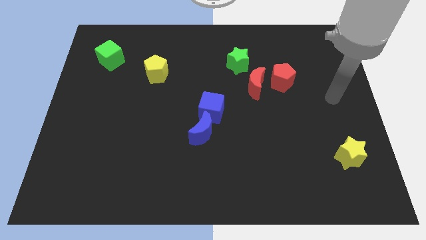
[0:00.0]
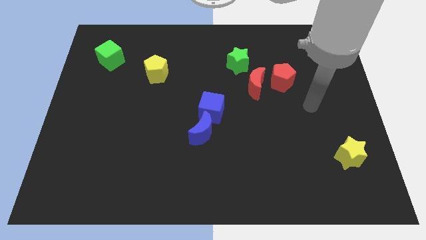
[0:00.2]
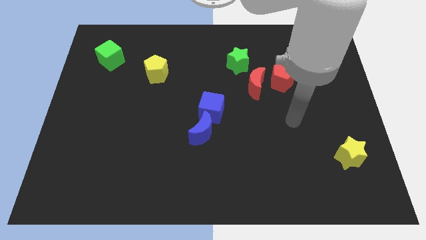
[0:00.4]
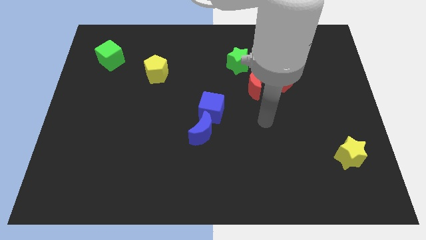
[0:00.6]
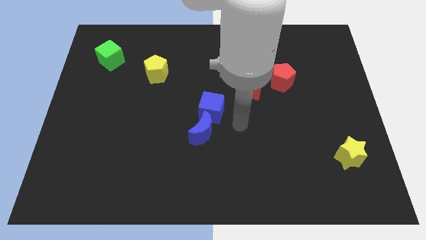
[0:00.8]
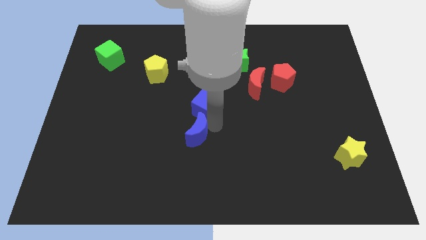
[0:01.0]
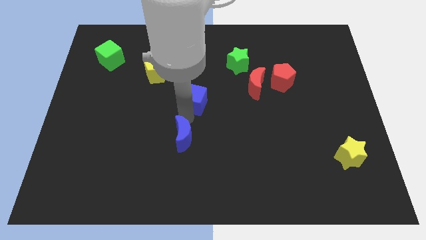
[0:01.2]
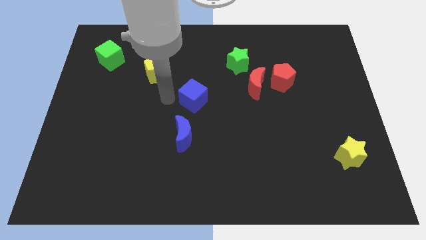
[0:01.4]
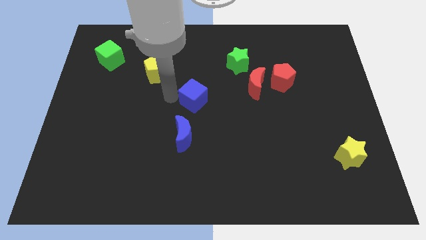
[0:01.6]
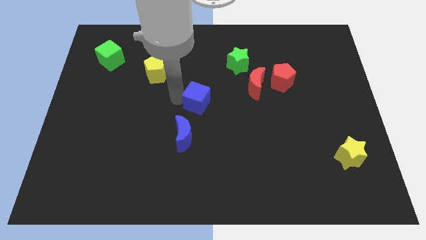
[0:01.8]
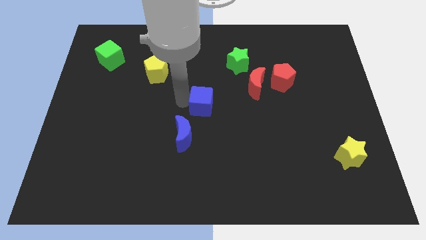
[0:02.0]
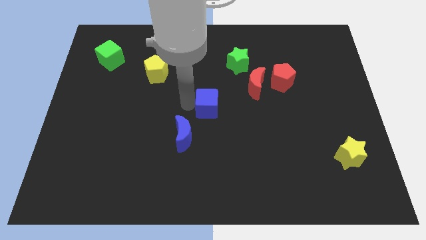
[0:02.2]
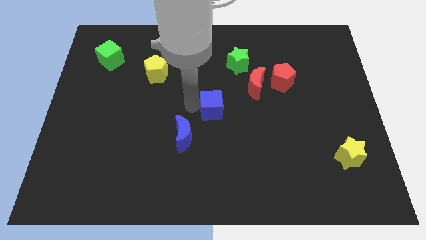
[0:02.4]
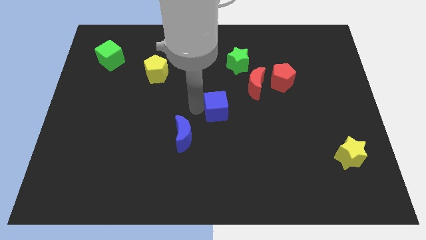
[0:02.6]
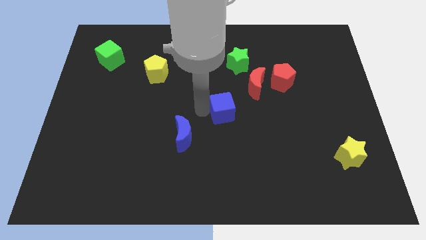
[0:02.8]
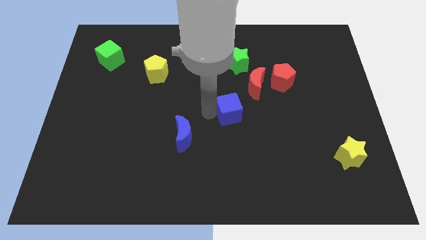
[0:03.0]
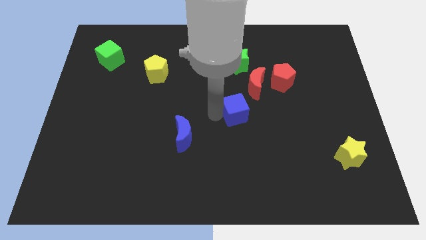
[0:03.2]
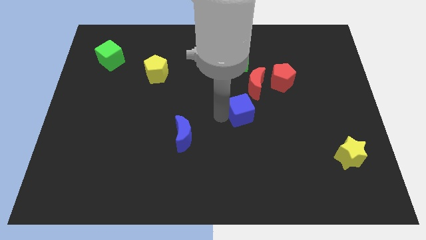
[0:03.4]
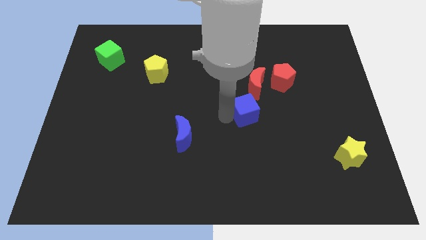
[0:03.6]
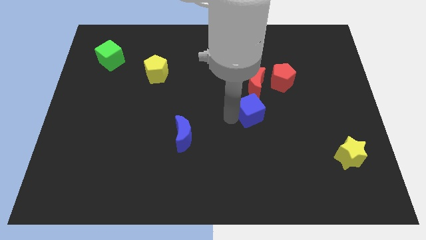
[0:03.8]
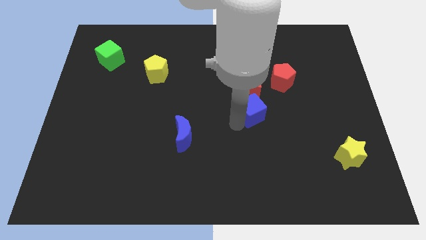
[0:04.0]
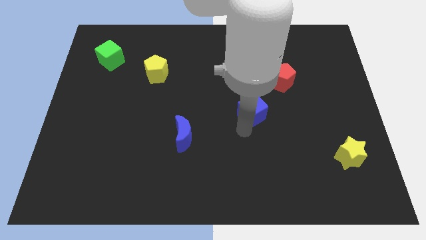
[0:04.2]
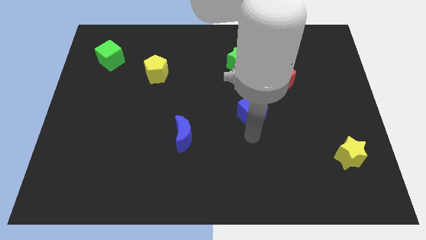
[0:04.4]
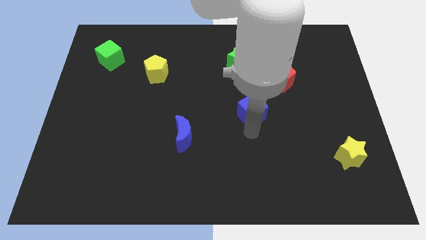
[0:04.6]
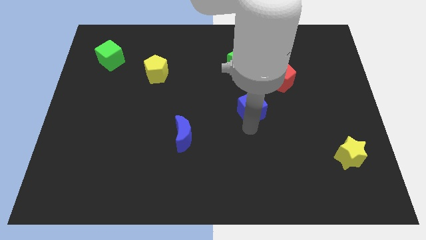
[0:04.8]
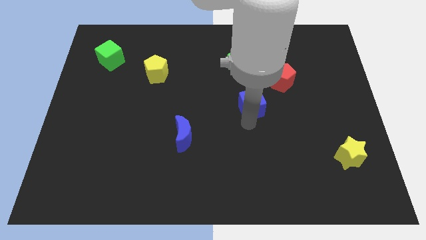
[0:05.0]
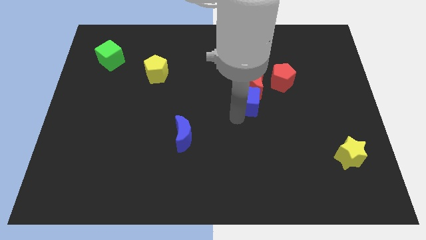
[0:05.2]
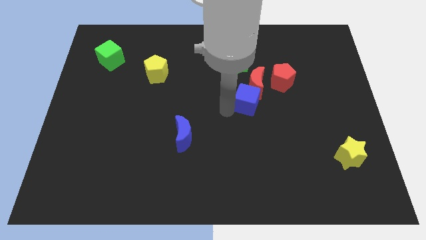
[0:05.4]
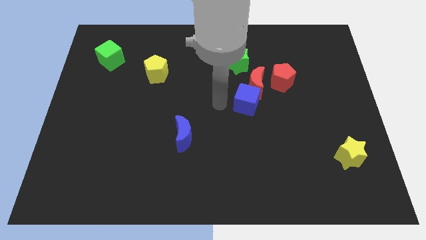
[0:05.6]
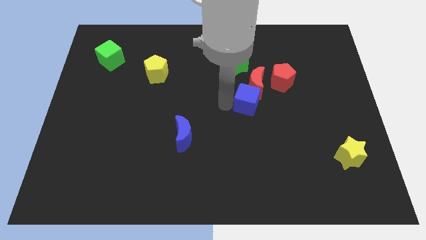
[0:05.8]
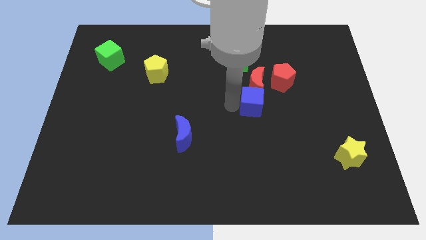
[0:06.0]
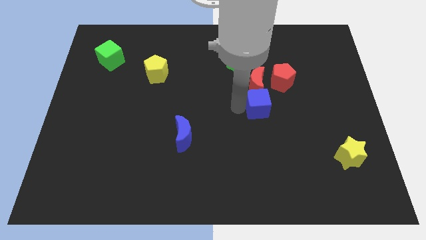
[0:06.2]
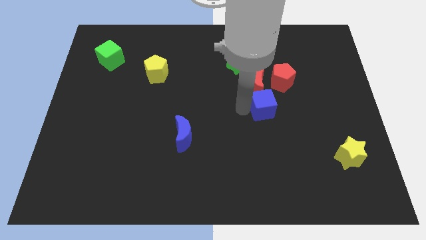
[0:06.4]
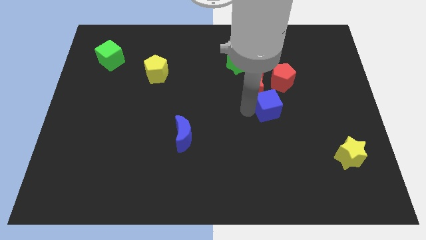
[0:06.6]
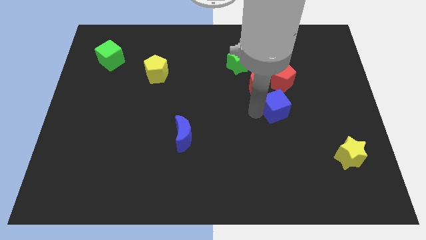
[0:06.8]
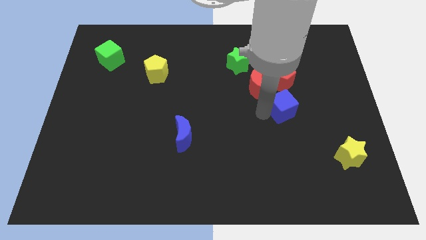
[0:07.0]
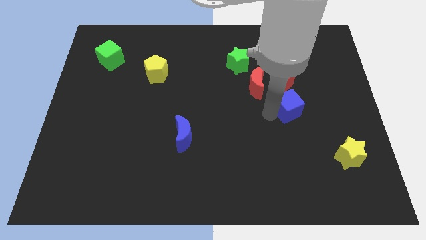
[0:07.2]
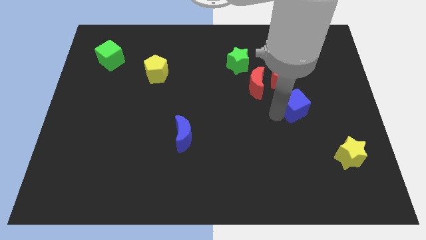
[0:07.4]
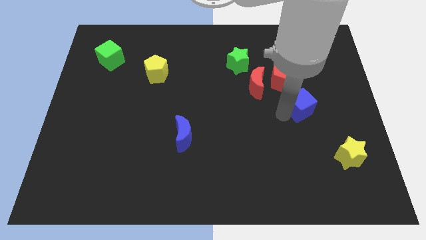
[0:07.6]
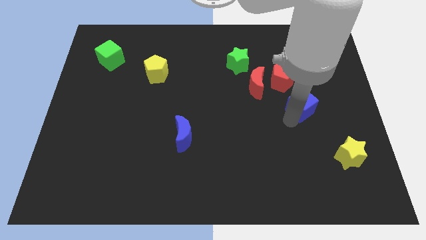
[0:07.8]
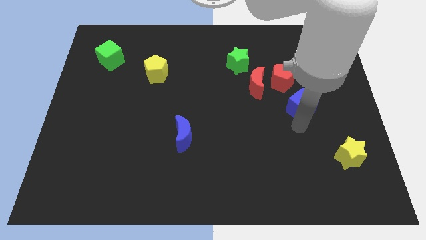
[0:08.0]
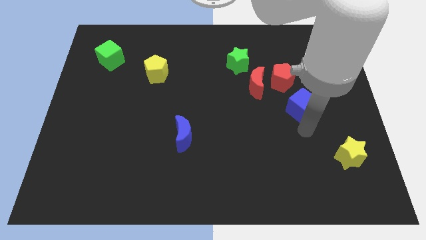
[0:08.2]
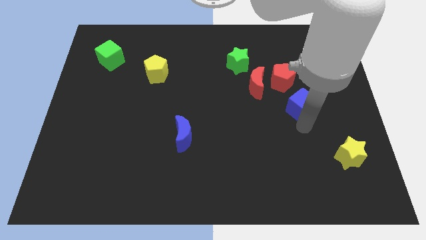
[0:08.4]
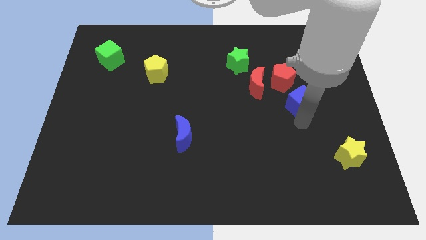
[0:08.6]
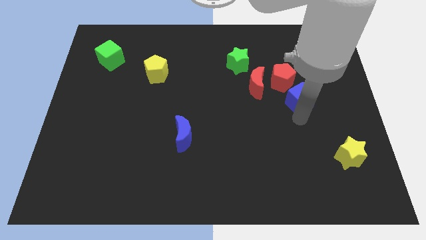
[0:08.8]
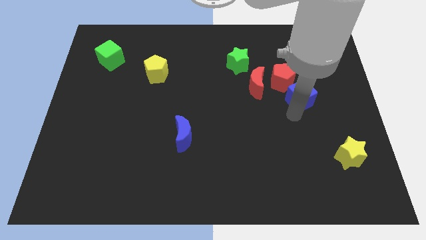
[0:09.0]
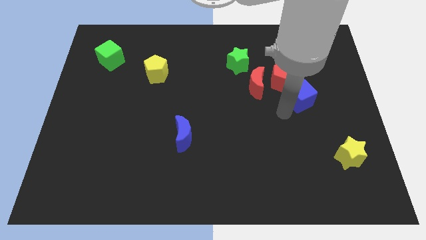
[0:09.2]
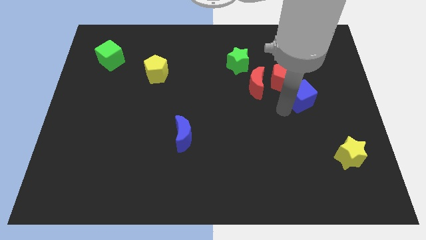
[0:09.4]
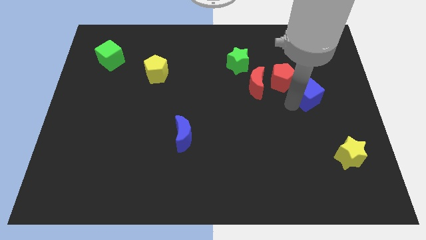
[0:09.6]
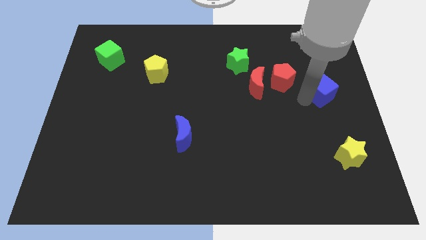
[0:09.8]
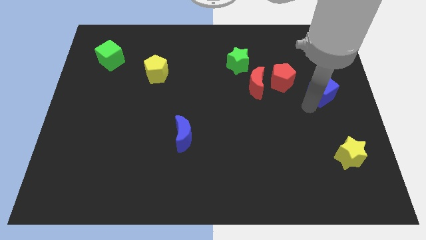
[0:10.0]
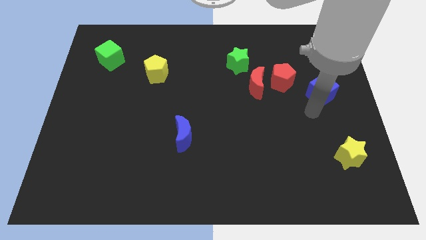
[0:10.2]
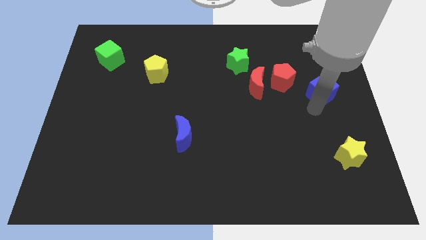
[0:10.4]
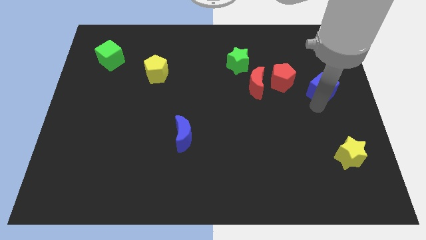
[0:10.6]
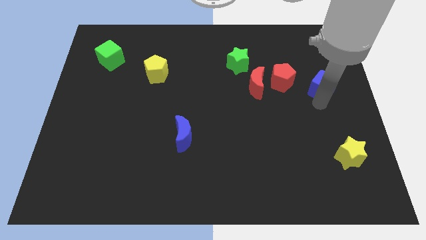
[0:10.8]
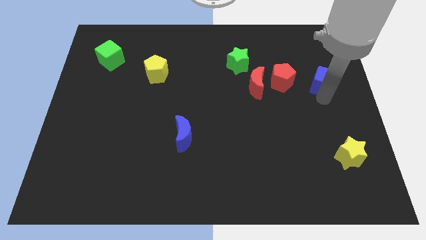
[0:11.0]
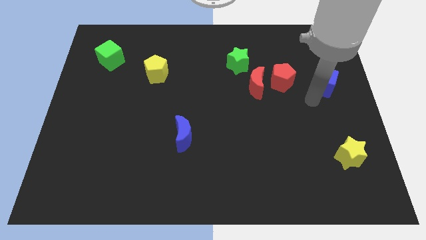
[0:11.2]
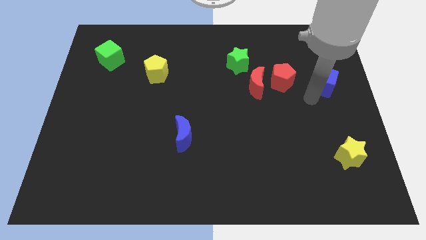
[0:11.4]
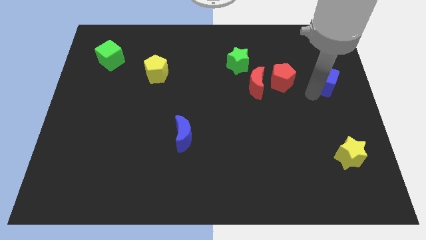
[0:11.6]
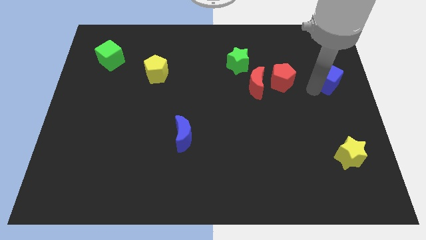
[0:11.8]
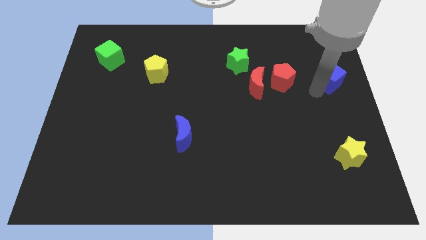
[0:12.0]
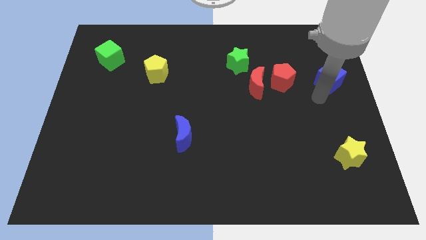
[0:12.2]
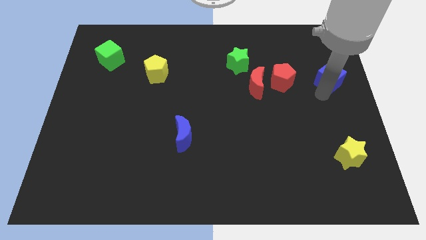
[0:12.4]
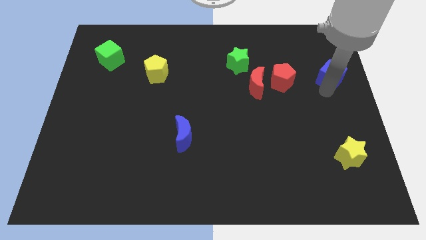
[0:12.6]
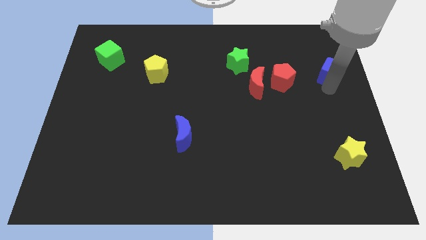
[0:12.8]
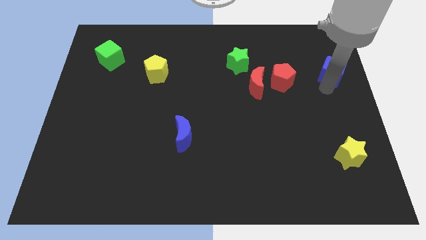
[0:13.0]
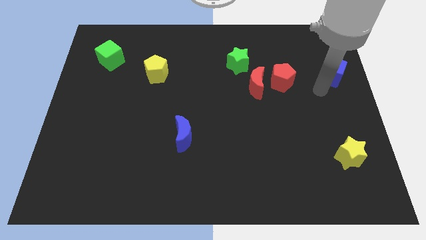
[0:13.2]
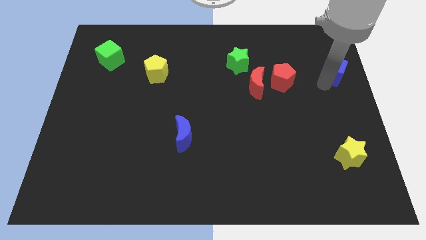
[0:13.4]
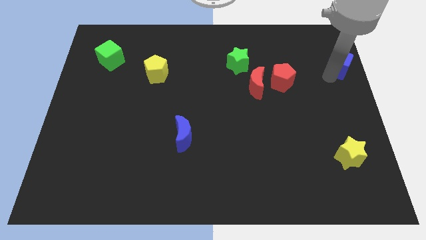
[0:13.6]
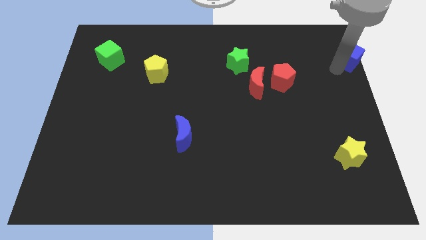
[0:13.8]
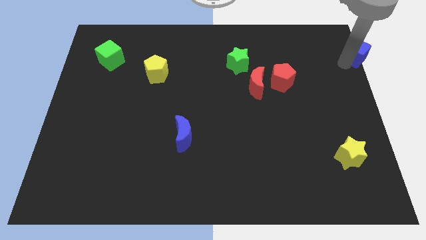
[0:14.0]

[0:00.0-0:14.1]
put the blue cube to the top right corner
